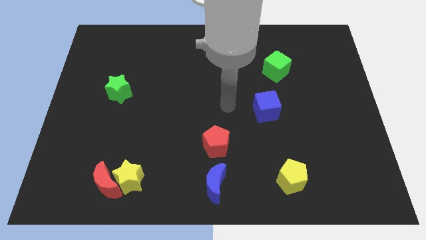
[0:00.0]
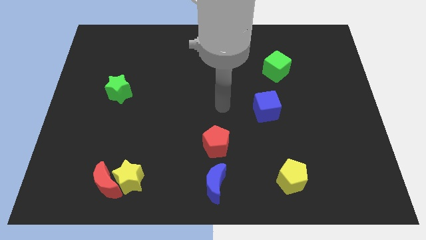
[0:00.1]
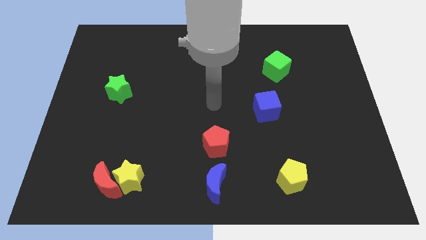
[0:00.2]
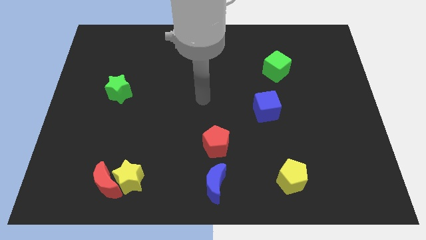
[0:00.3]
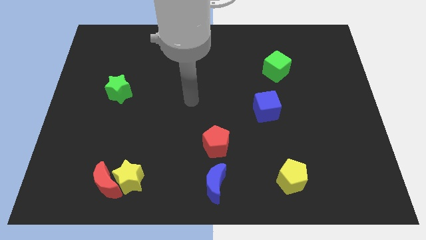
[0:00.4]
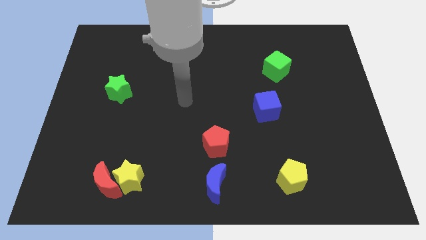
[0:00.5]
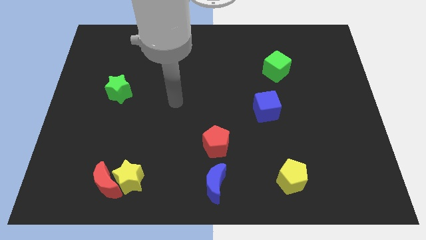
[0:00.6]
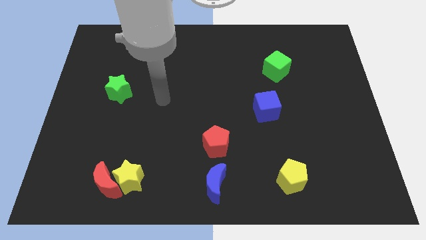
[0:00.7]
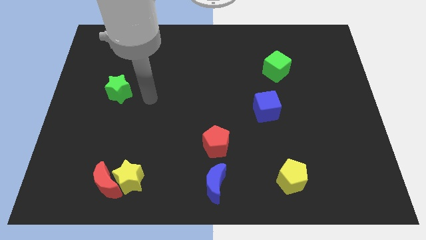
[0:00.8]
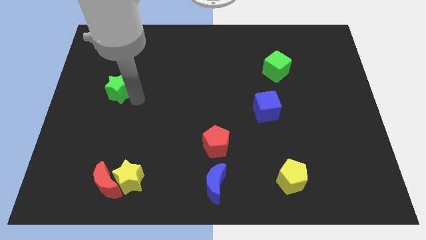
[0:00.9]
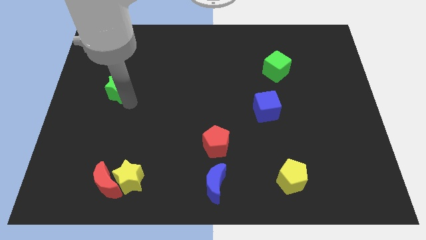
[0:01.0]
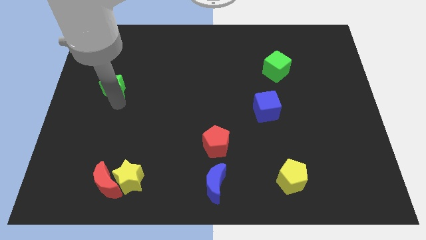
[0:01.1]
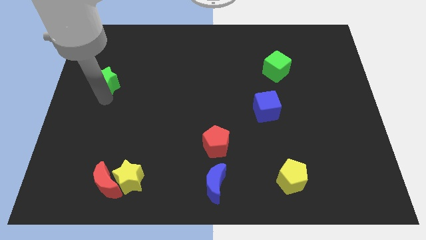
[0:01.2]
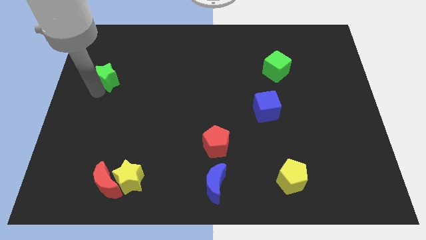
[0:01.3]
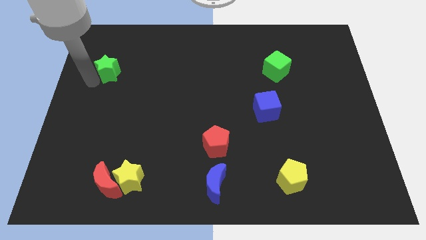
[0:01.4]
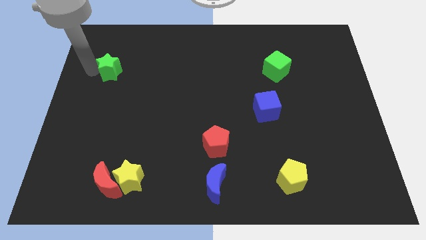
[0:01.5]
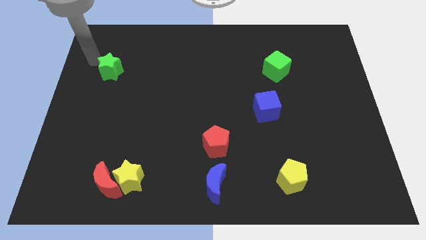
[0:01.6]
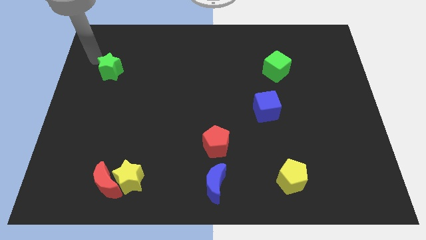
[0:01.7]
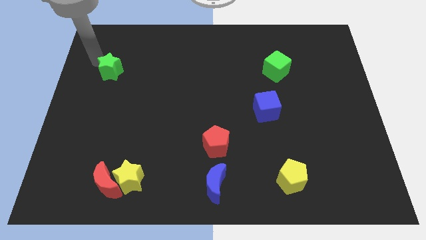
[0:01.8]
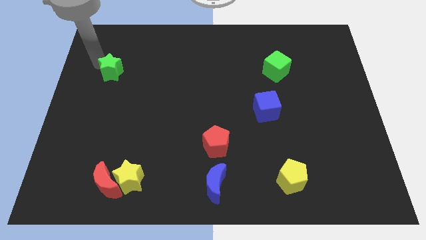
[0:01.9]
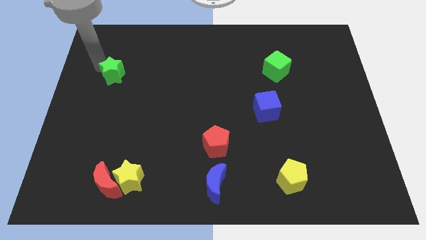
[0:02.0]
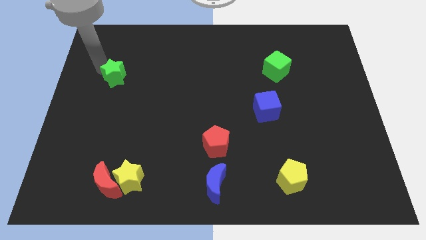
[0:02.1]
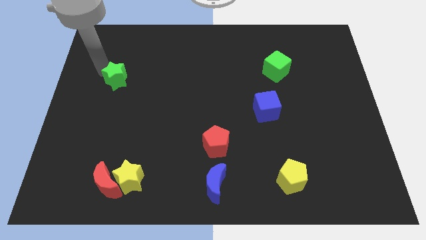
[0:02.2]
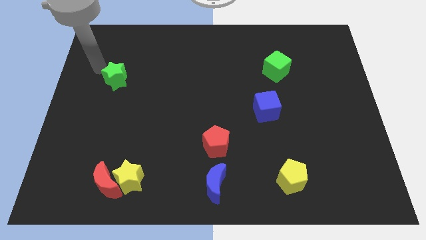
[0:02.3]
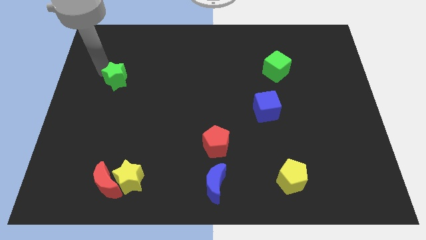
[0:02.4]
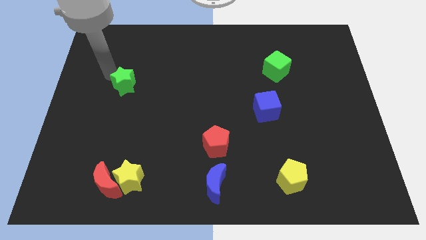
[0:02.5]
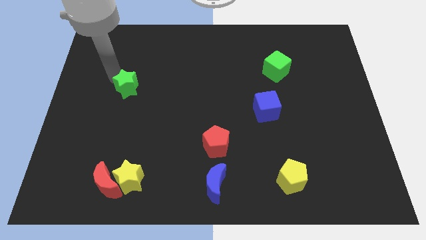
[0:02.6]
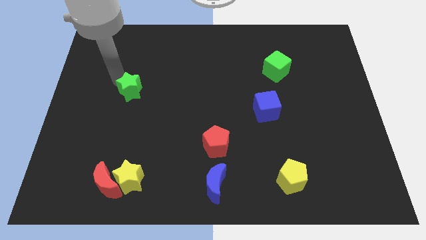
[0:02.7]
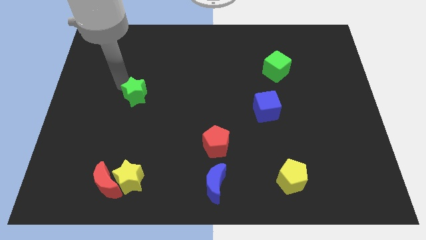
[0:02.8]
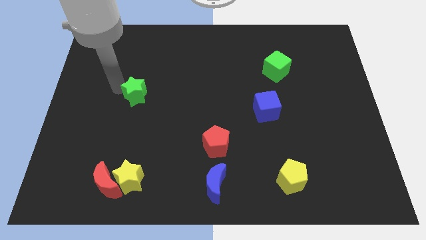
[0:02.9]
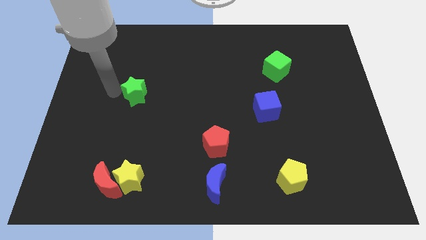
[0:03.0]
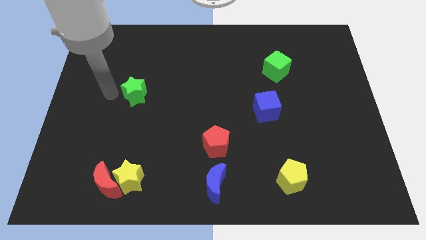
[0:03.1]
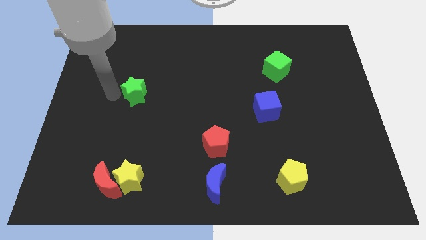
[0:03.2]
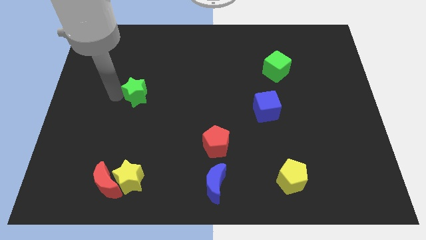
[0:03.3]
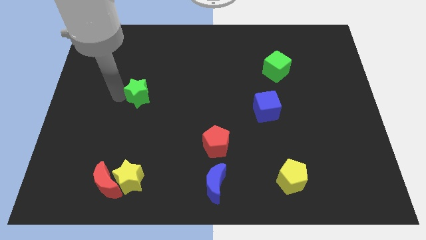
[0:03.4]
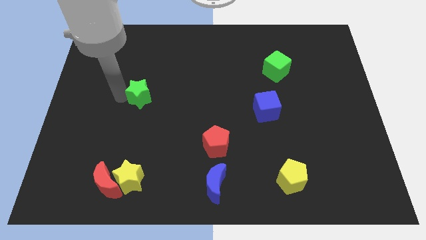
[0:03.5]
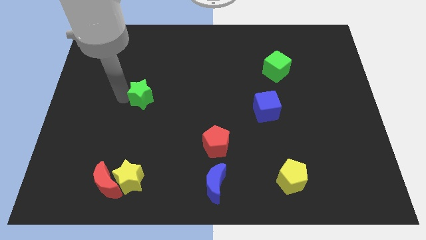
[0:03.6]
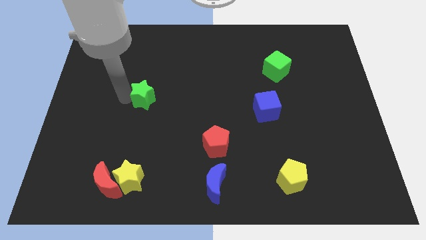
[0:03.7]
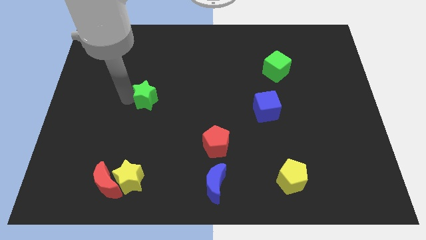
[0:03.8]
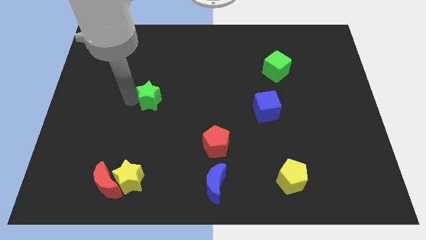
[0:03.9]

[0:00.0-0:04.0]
slide the green star to the right a bit

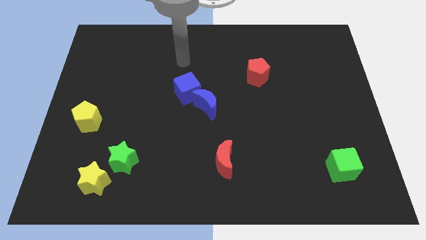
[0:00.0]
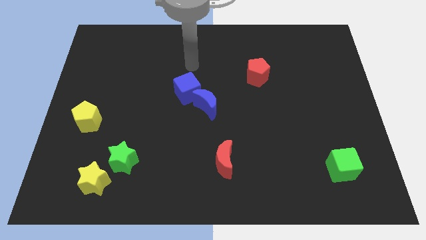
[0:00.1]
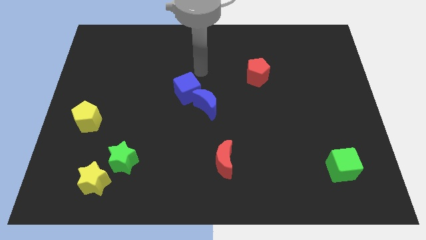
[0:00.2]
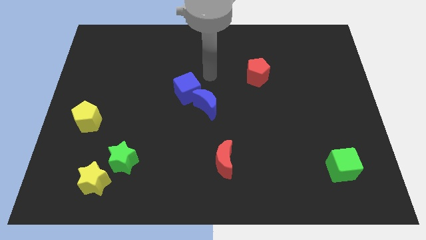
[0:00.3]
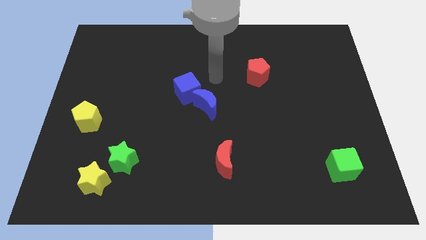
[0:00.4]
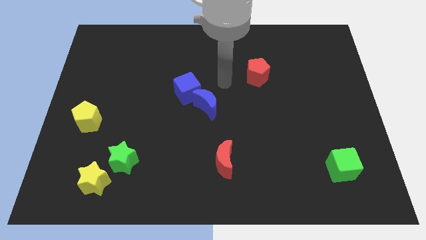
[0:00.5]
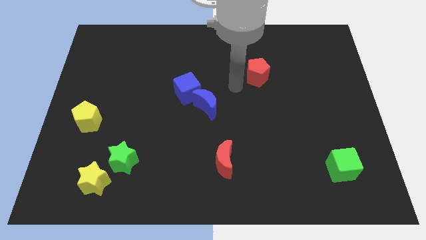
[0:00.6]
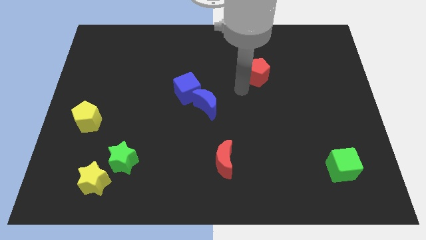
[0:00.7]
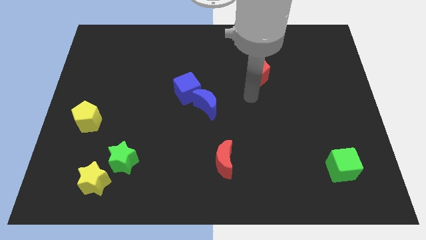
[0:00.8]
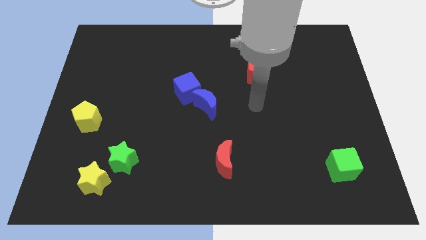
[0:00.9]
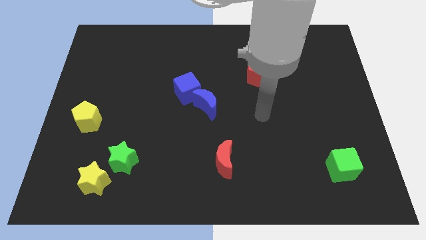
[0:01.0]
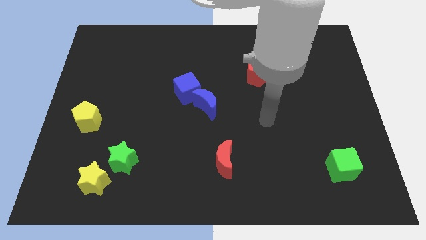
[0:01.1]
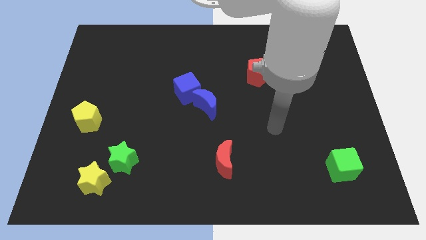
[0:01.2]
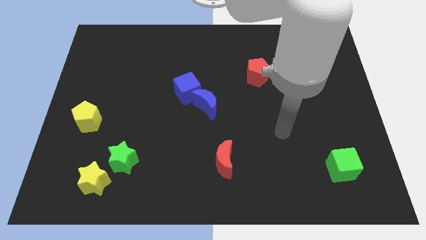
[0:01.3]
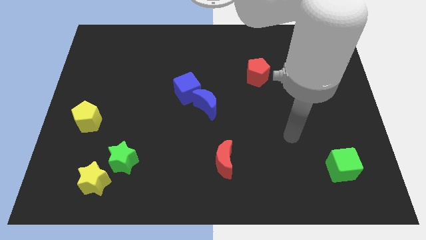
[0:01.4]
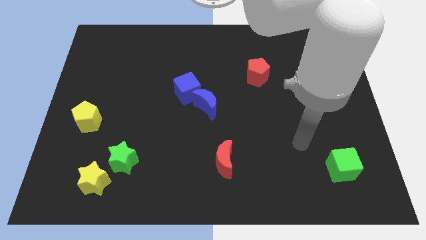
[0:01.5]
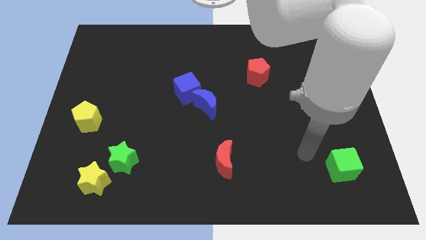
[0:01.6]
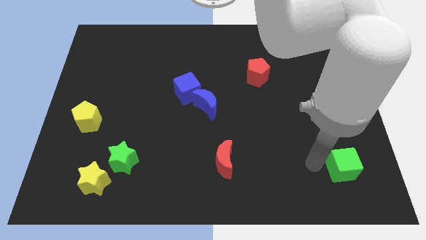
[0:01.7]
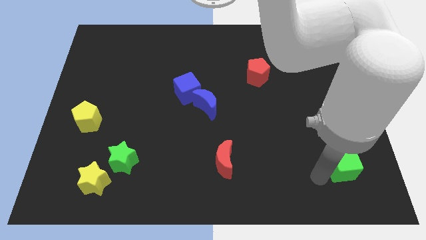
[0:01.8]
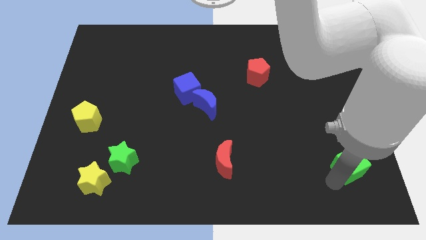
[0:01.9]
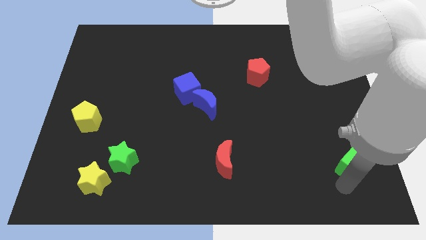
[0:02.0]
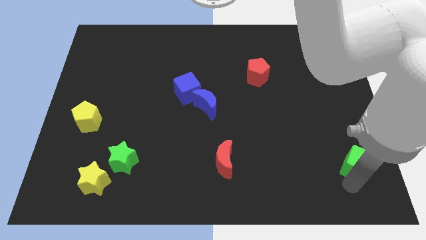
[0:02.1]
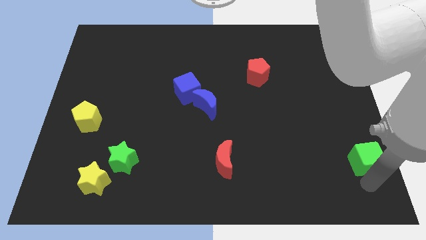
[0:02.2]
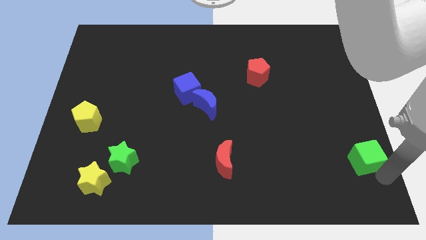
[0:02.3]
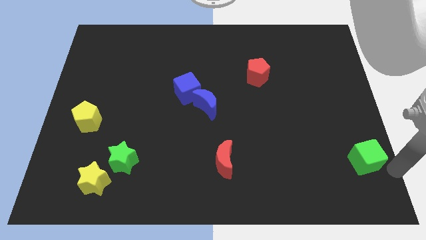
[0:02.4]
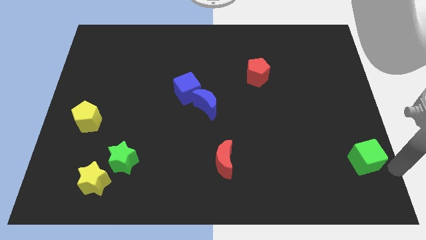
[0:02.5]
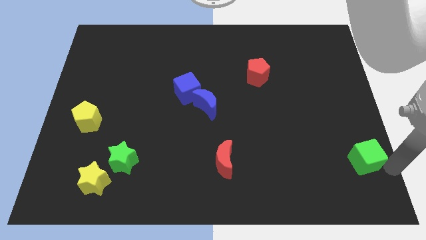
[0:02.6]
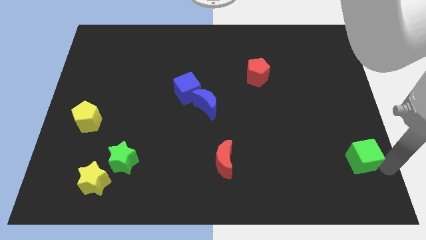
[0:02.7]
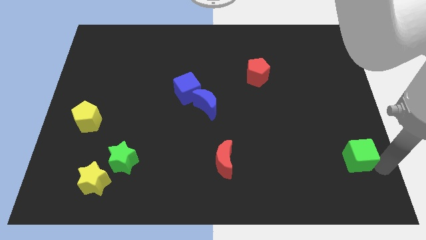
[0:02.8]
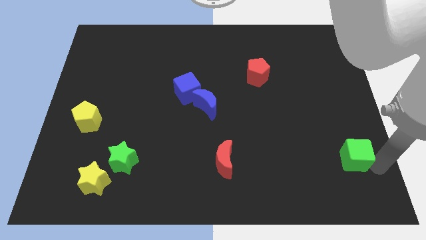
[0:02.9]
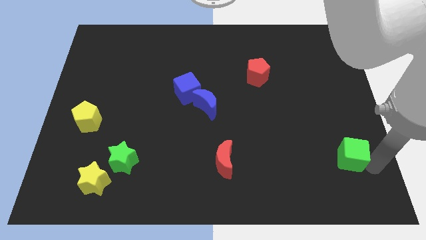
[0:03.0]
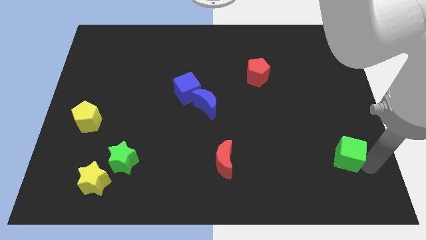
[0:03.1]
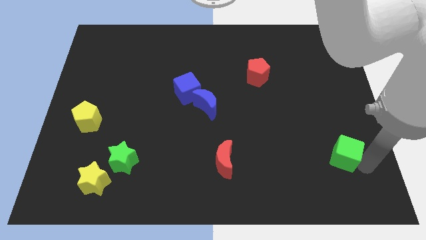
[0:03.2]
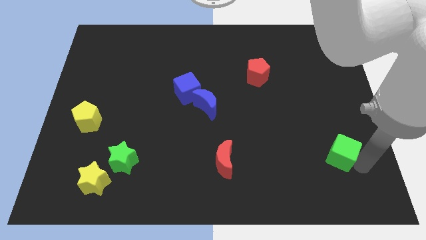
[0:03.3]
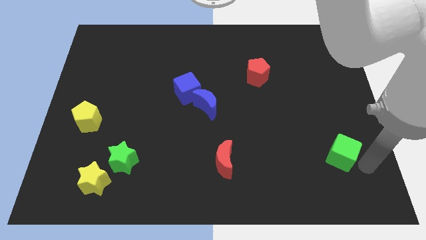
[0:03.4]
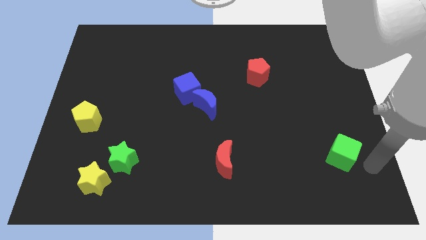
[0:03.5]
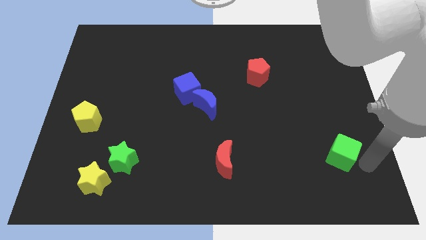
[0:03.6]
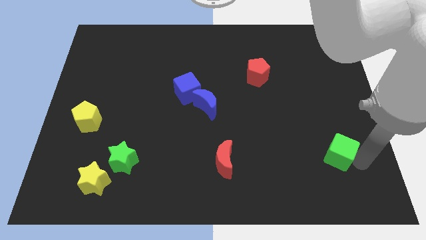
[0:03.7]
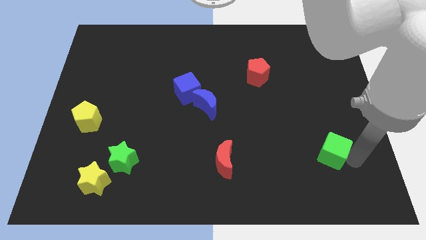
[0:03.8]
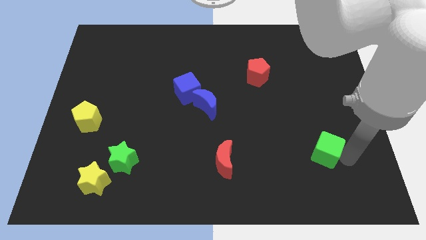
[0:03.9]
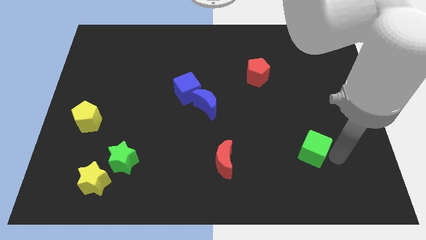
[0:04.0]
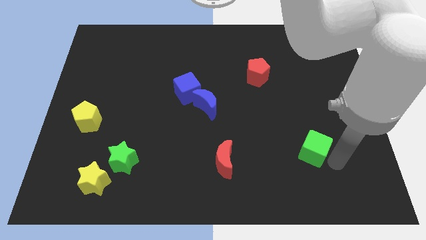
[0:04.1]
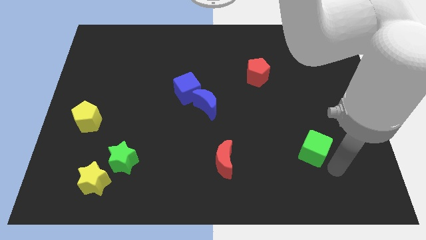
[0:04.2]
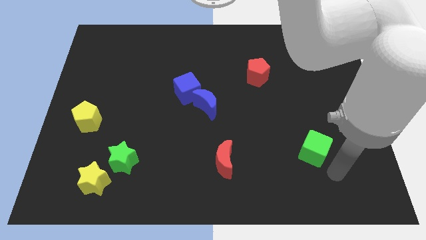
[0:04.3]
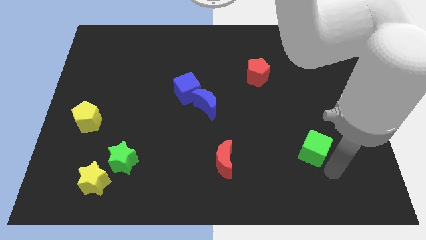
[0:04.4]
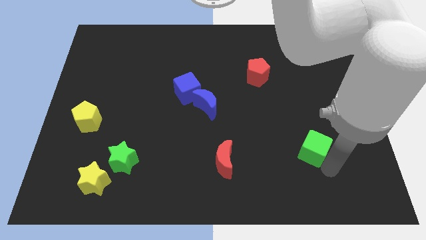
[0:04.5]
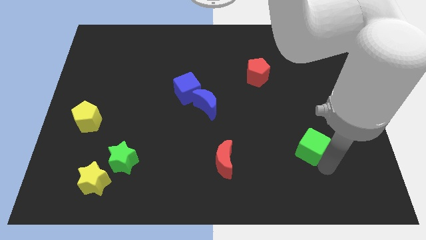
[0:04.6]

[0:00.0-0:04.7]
slightly slide the green cube diagonally up and left
